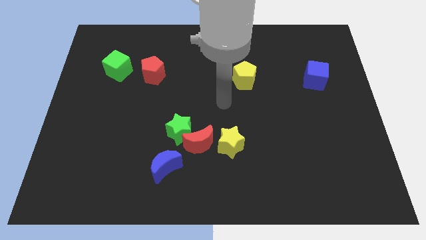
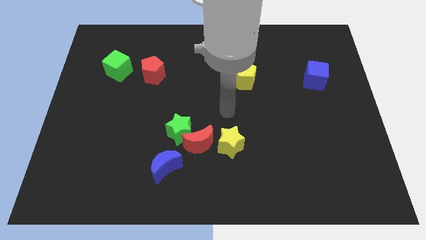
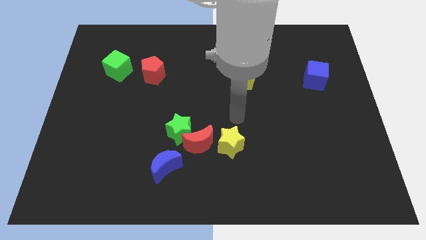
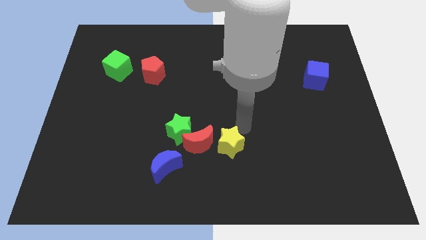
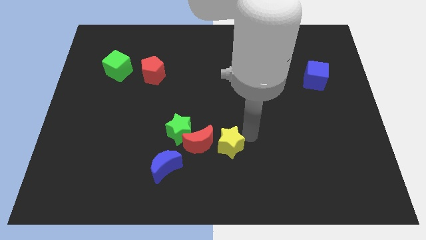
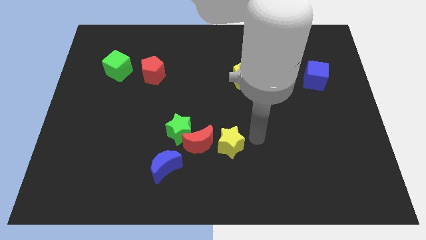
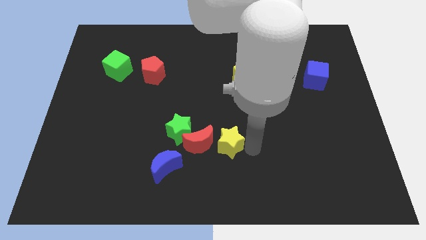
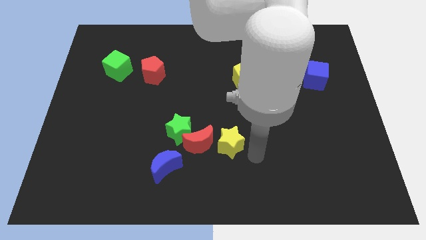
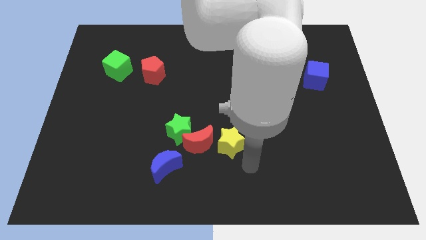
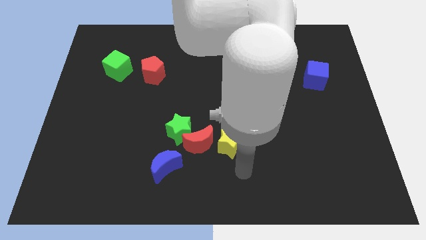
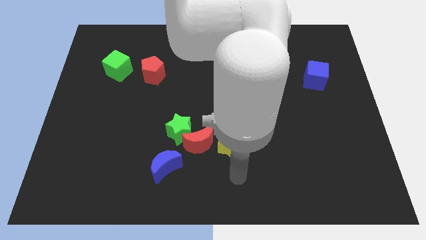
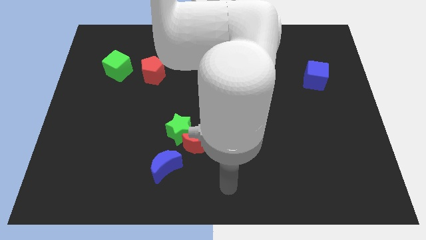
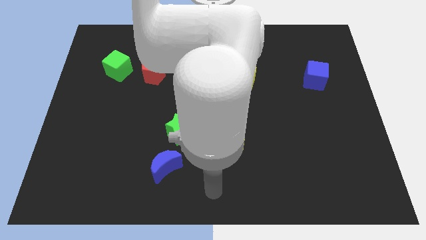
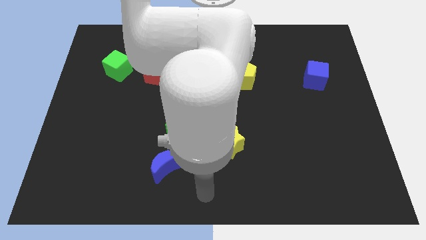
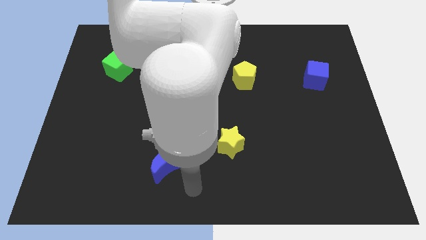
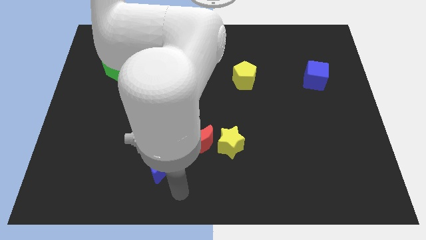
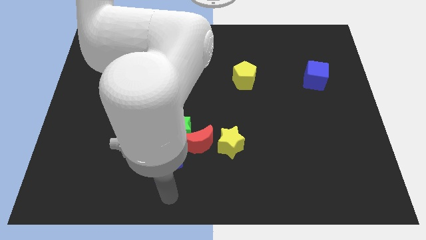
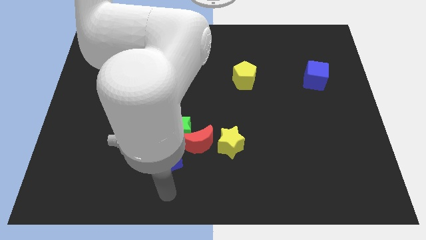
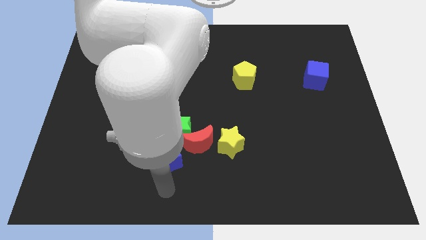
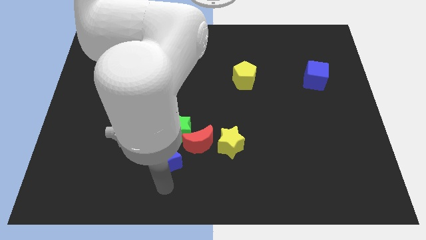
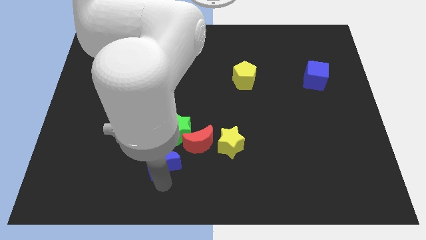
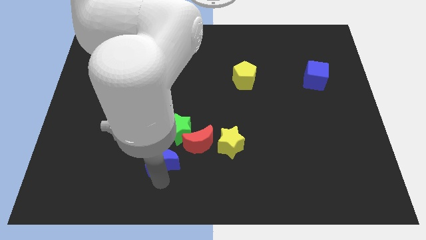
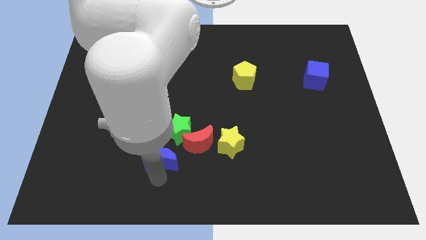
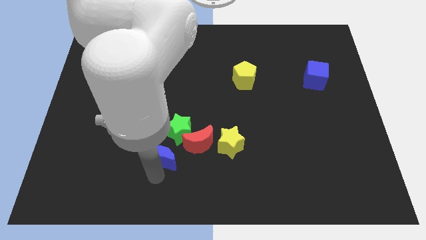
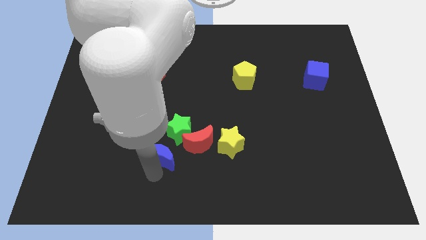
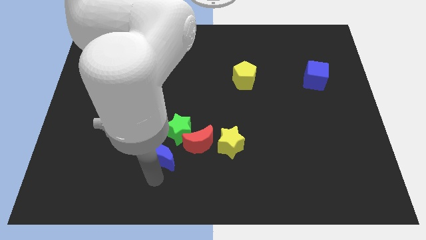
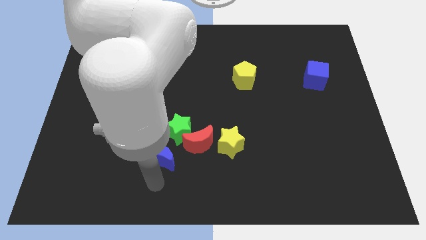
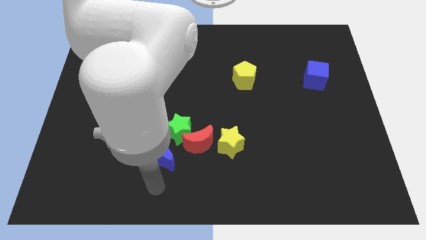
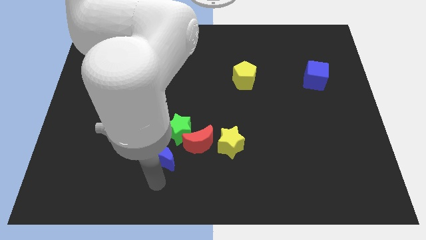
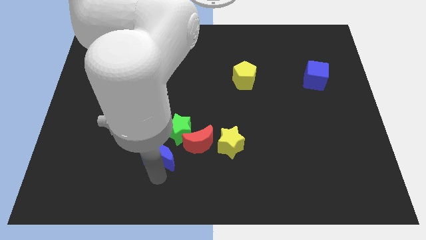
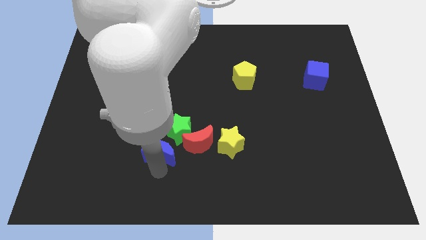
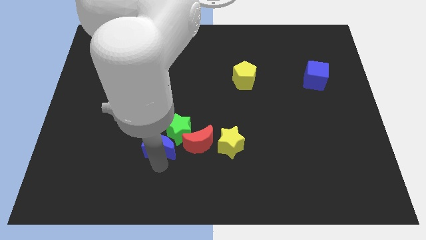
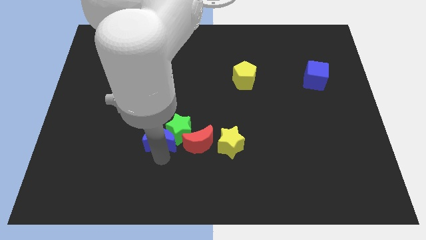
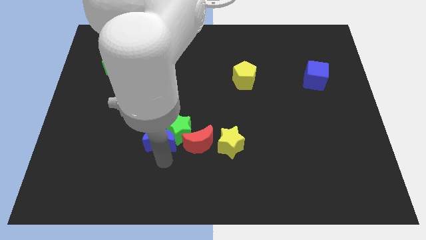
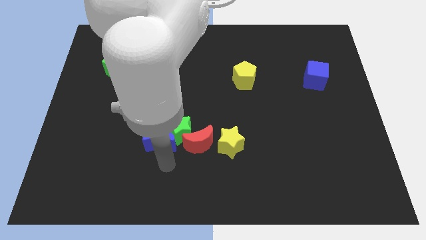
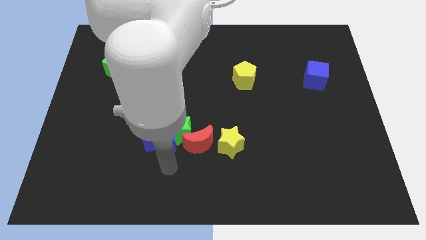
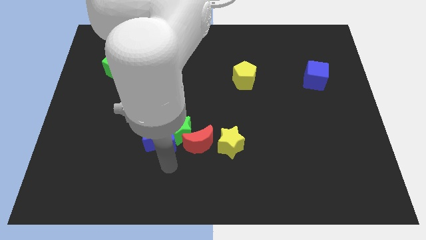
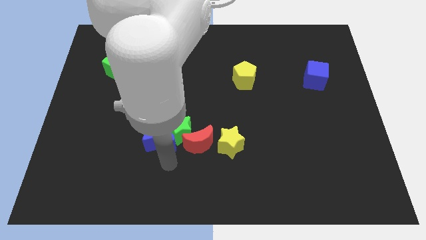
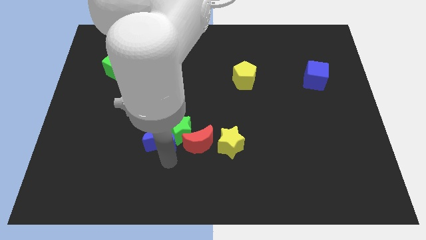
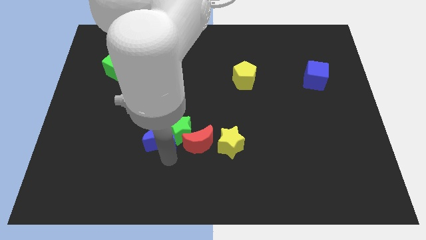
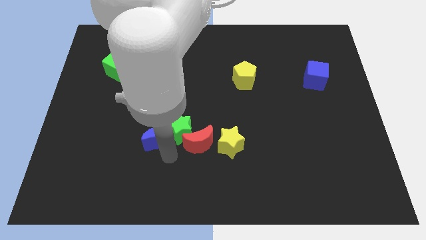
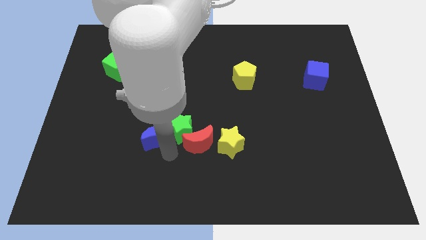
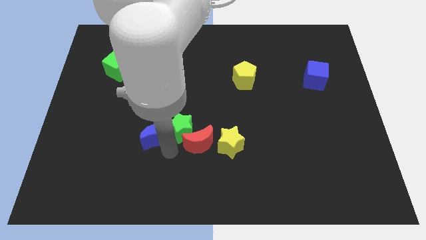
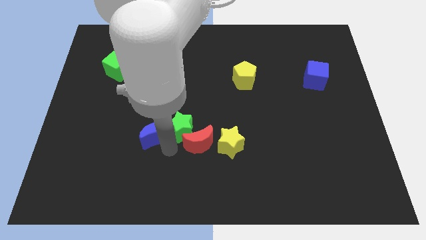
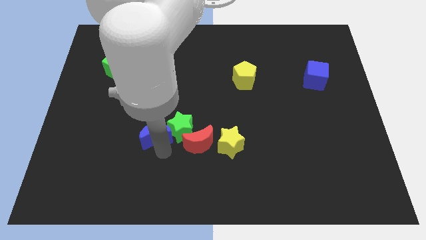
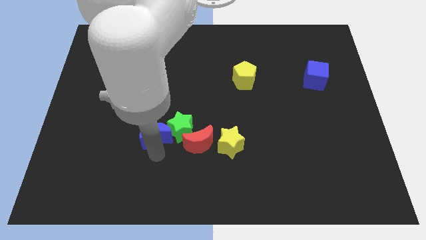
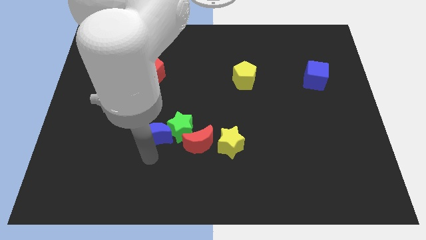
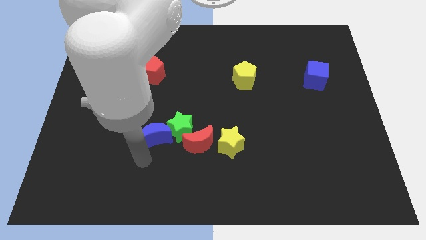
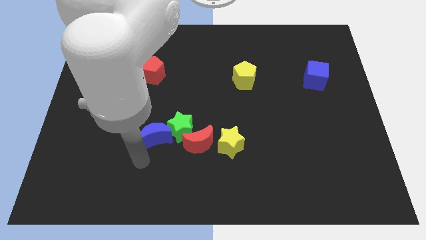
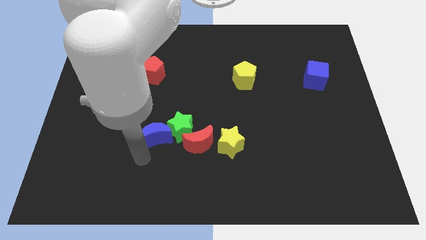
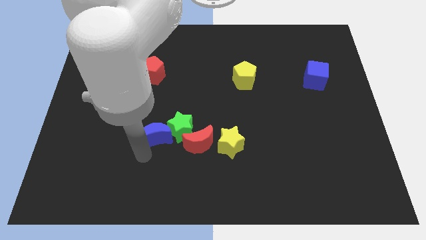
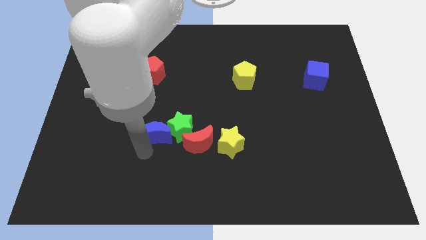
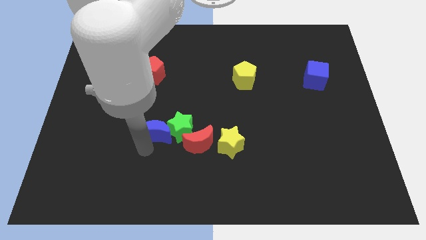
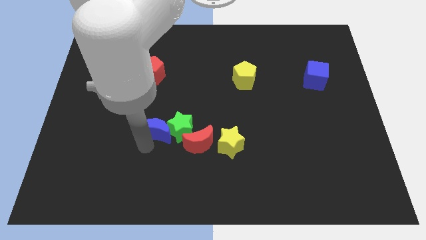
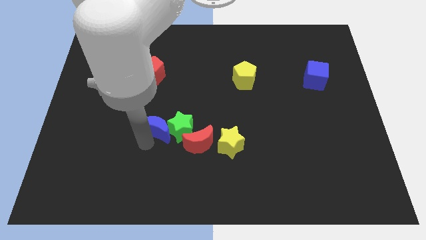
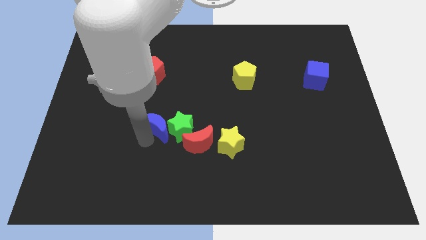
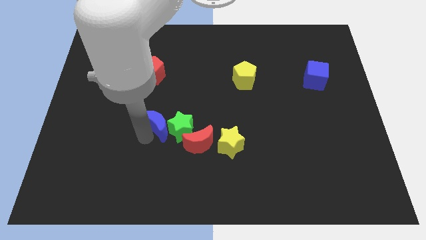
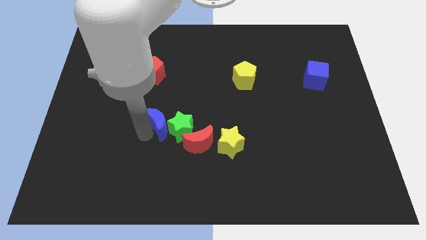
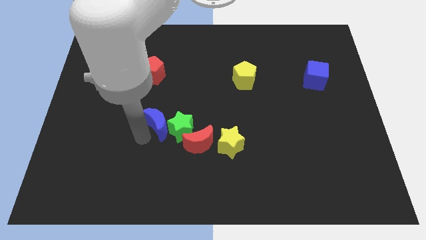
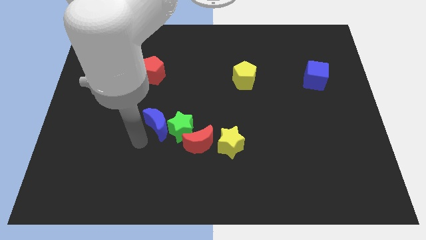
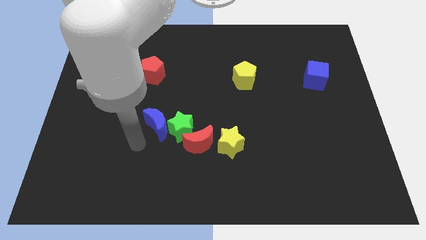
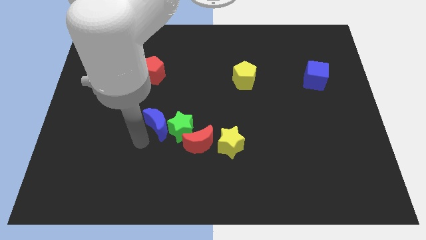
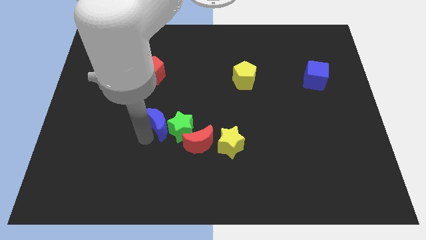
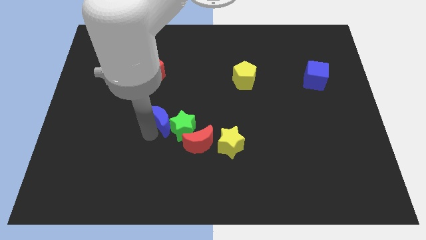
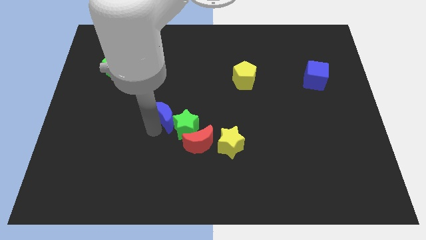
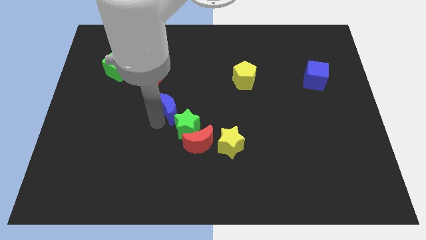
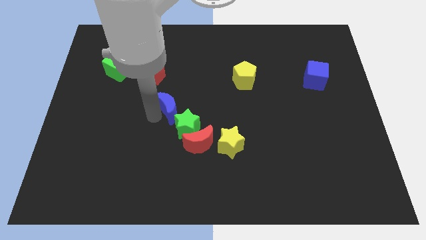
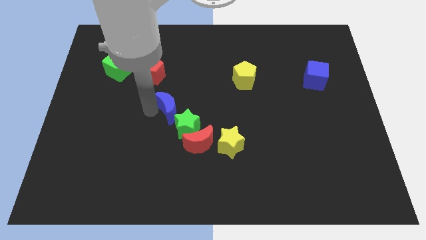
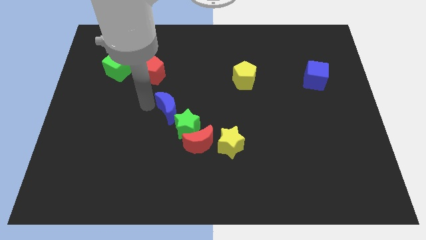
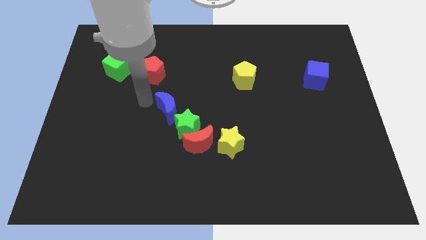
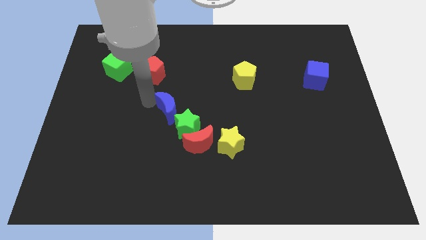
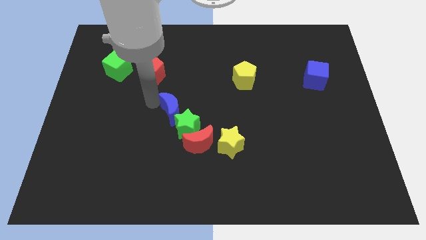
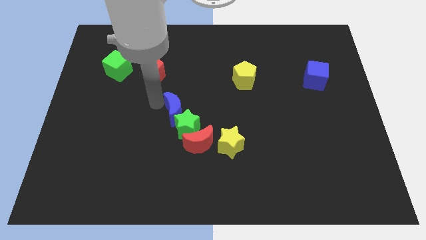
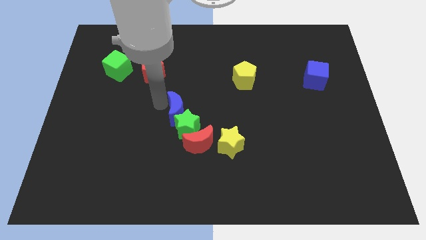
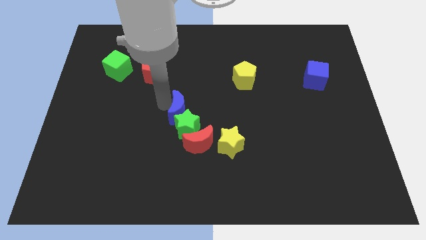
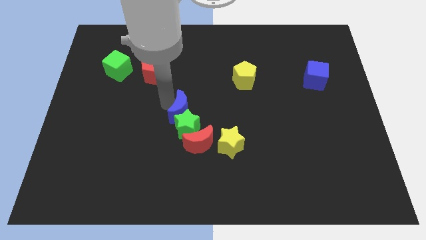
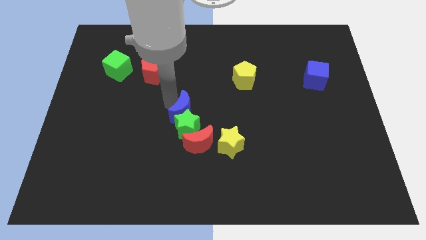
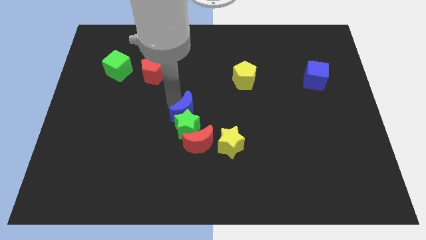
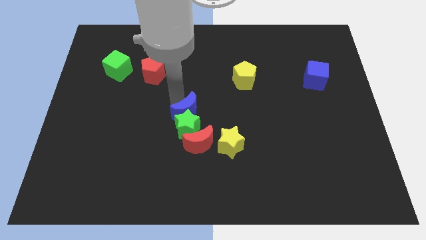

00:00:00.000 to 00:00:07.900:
put the blue moon to the top left side of the yellow star
